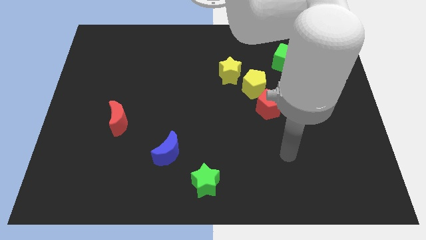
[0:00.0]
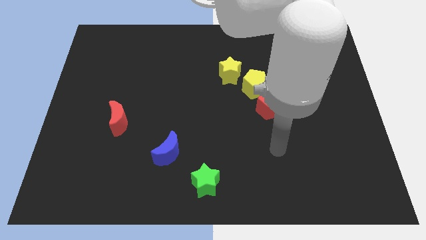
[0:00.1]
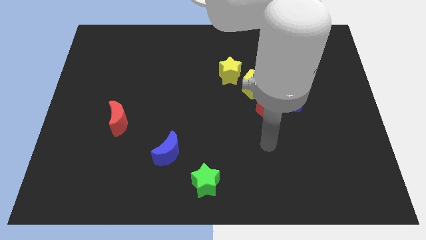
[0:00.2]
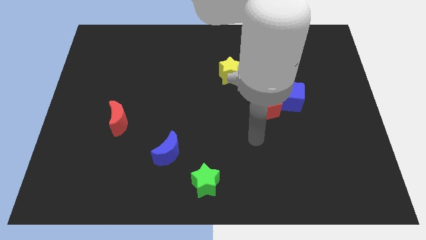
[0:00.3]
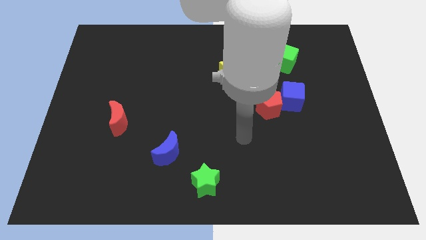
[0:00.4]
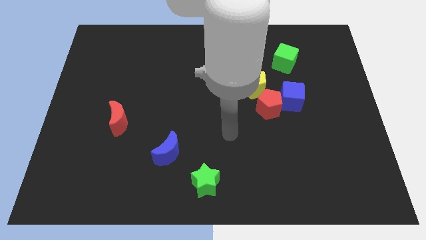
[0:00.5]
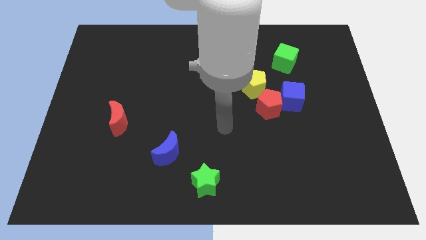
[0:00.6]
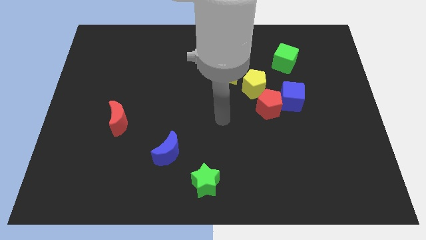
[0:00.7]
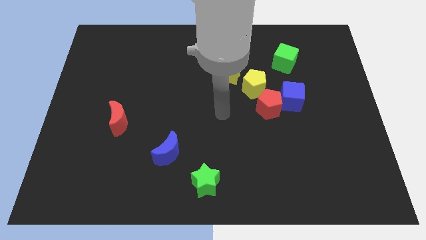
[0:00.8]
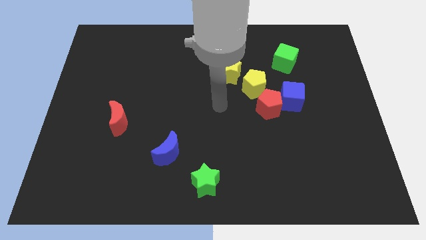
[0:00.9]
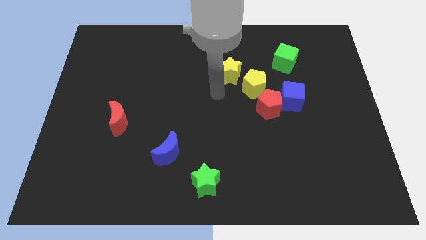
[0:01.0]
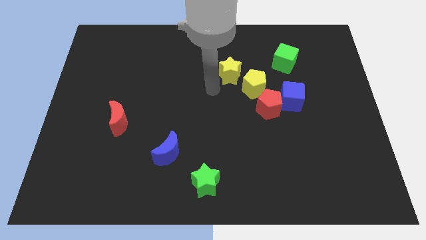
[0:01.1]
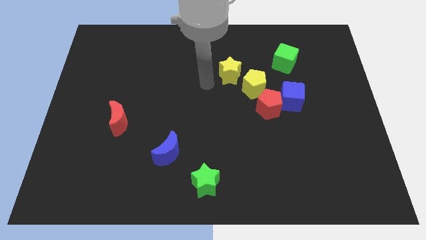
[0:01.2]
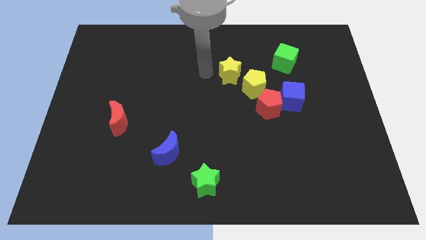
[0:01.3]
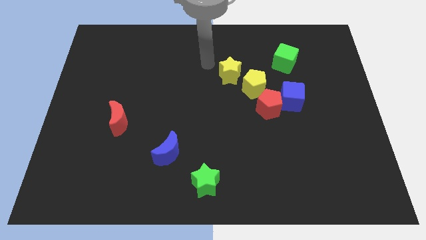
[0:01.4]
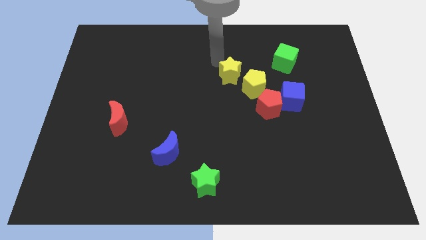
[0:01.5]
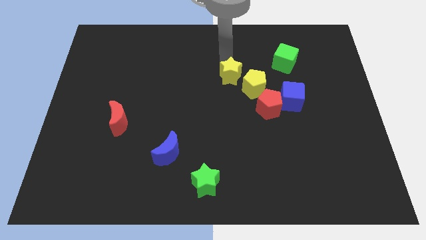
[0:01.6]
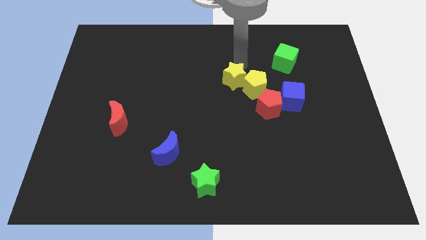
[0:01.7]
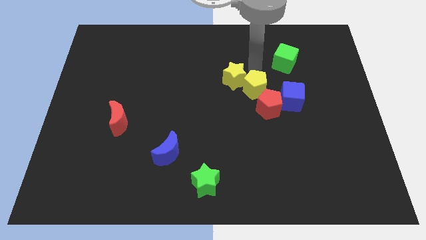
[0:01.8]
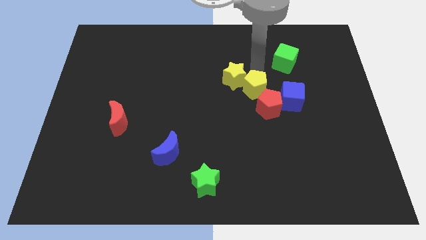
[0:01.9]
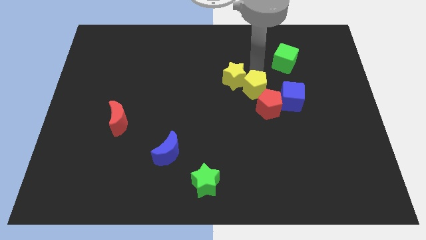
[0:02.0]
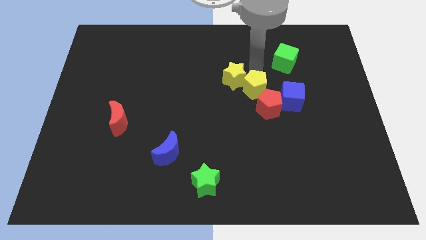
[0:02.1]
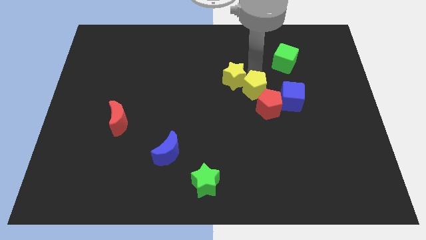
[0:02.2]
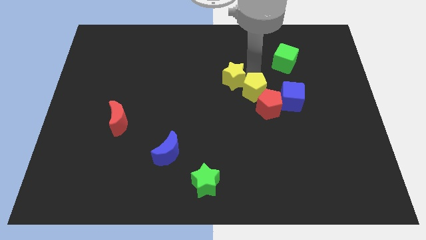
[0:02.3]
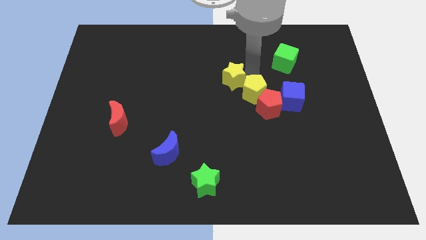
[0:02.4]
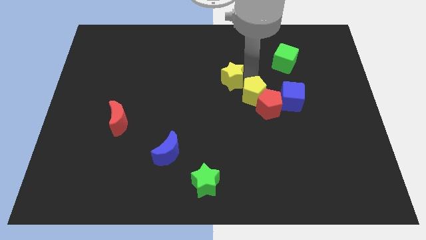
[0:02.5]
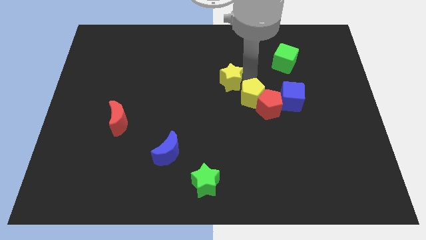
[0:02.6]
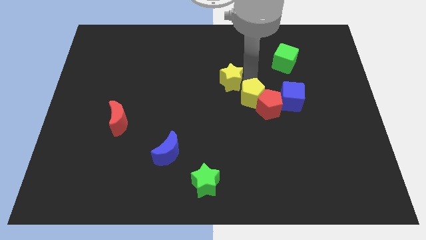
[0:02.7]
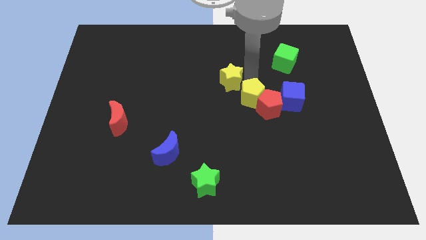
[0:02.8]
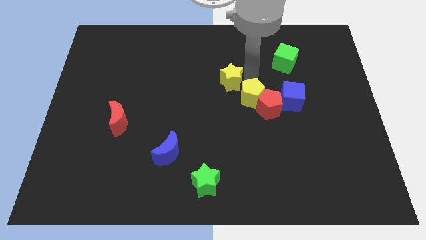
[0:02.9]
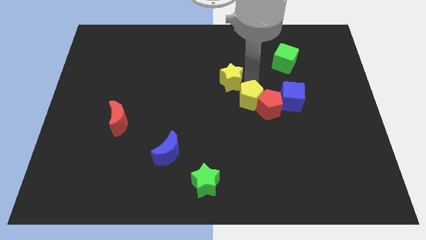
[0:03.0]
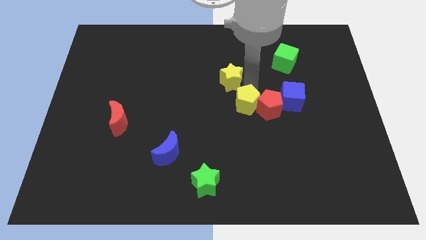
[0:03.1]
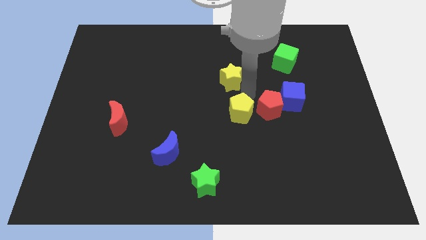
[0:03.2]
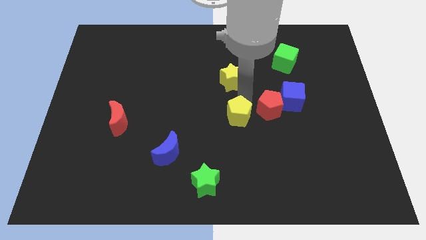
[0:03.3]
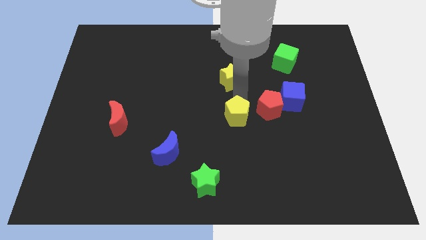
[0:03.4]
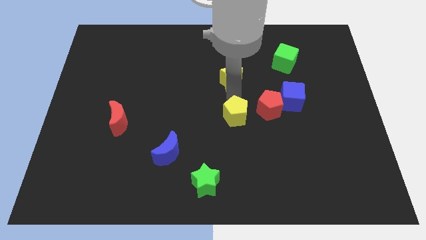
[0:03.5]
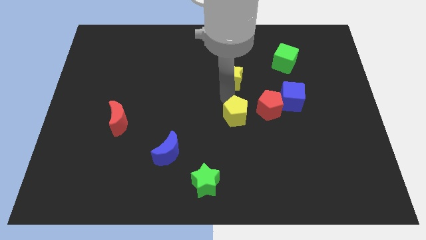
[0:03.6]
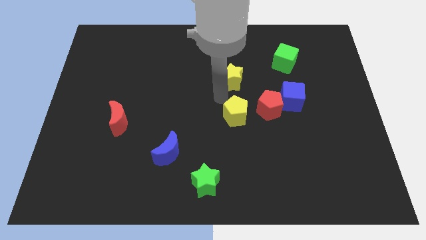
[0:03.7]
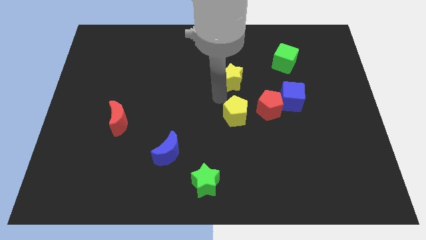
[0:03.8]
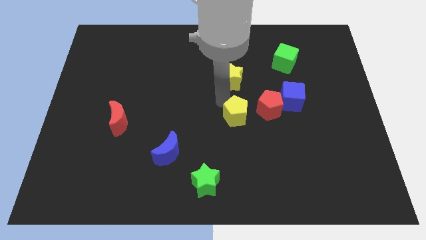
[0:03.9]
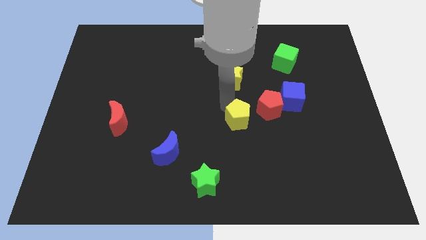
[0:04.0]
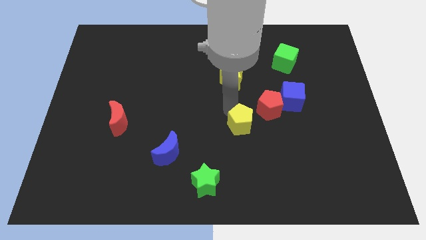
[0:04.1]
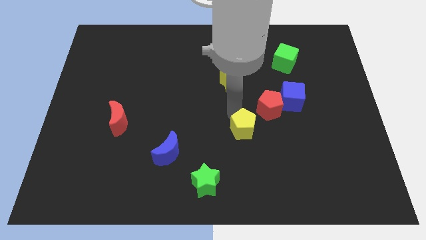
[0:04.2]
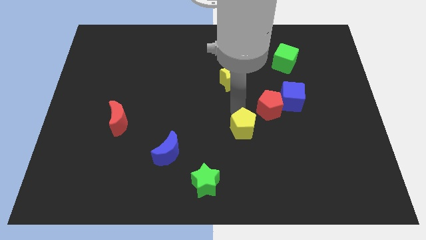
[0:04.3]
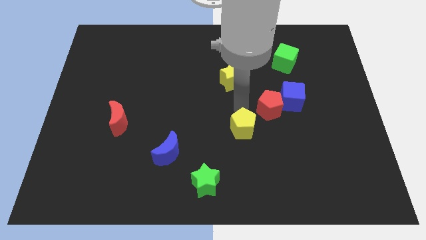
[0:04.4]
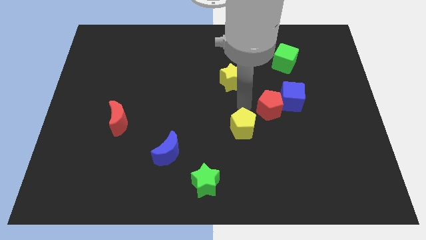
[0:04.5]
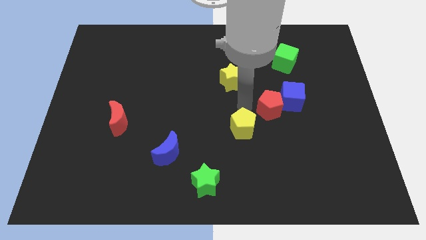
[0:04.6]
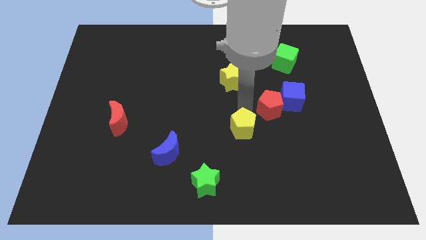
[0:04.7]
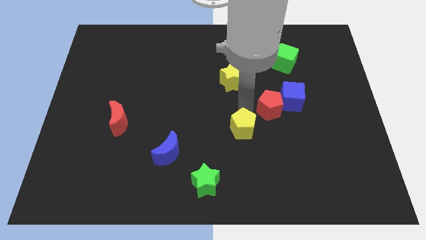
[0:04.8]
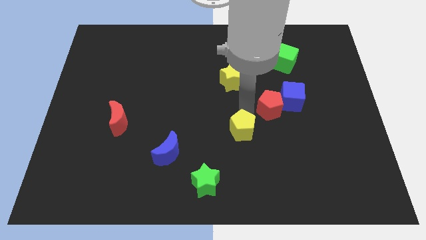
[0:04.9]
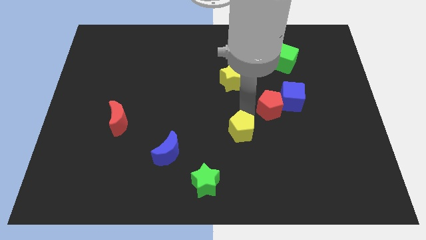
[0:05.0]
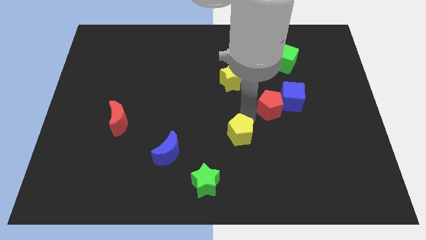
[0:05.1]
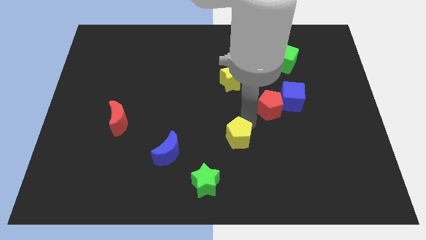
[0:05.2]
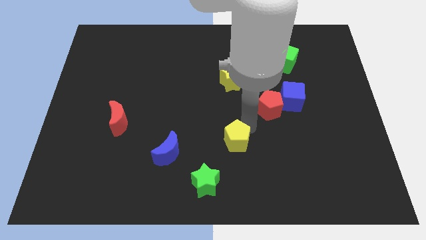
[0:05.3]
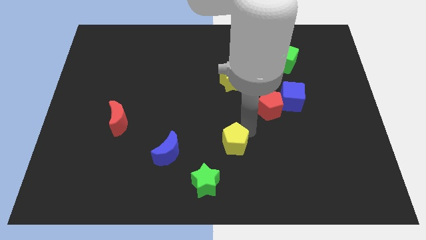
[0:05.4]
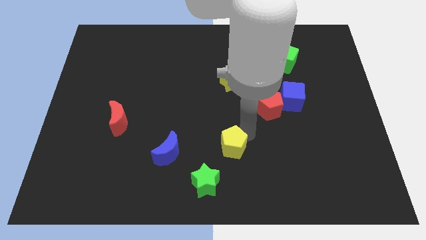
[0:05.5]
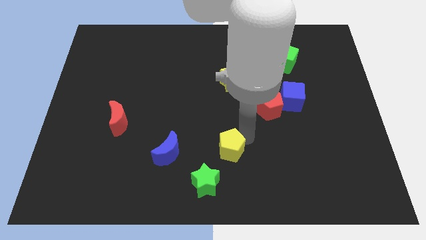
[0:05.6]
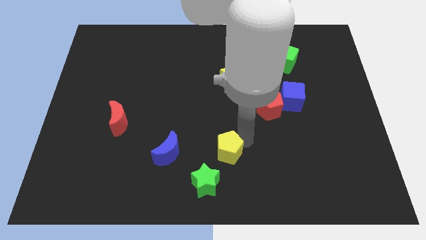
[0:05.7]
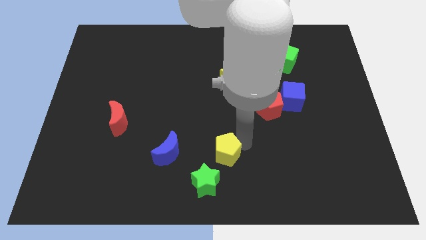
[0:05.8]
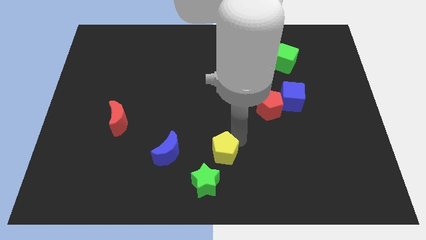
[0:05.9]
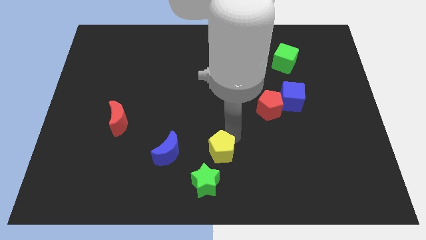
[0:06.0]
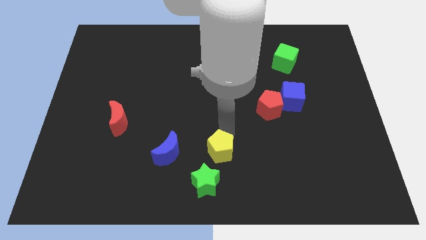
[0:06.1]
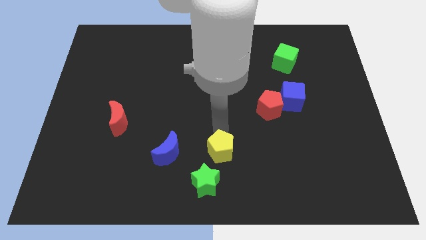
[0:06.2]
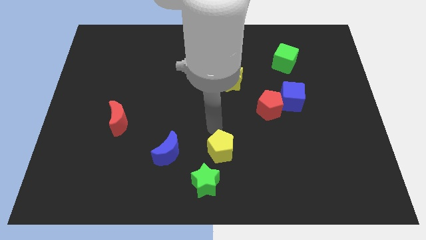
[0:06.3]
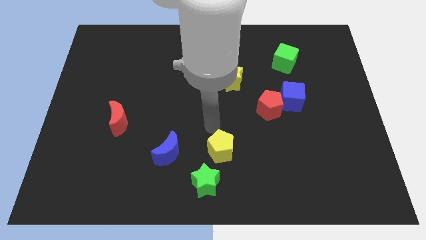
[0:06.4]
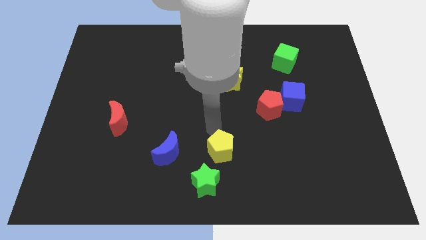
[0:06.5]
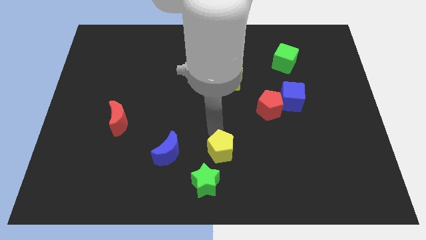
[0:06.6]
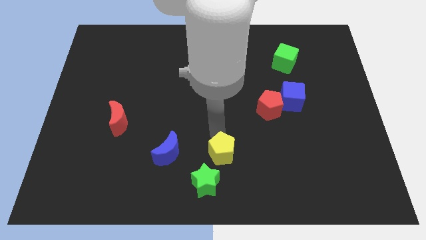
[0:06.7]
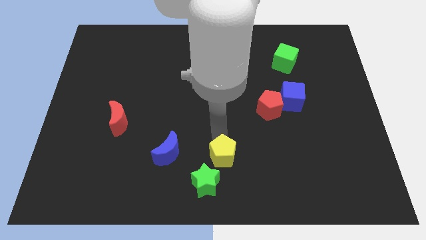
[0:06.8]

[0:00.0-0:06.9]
push the yellow pentagon to the bottom side
